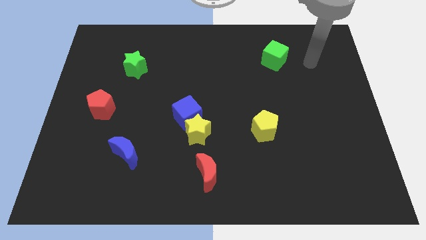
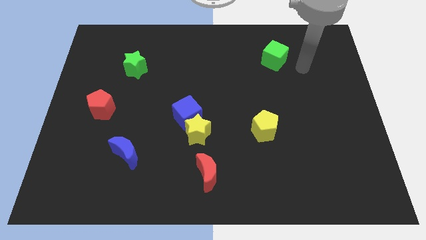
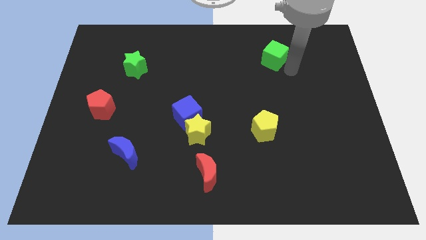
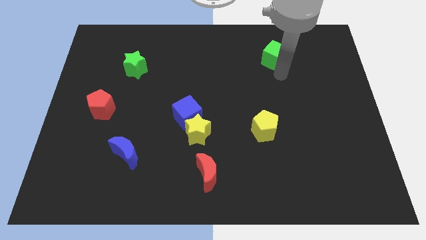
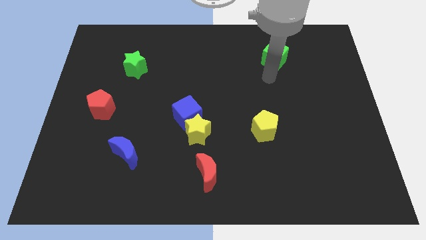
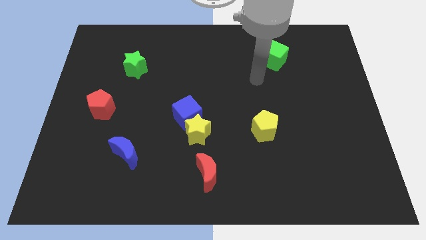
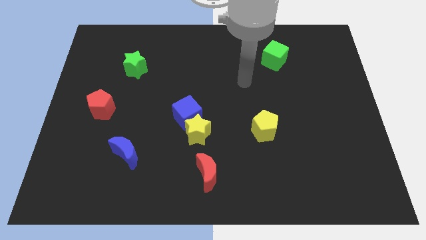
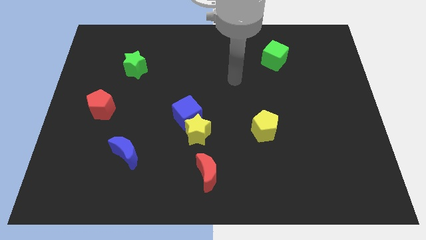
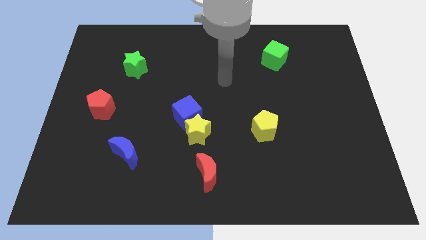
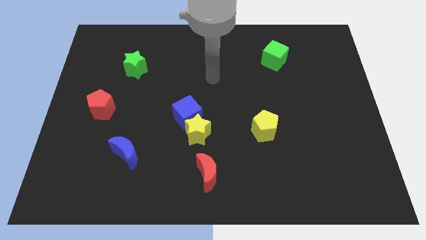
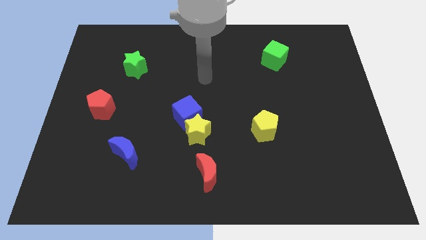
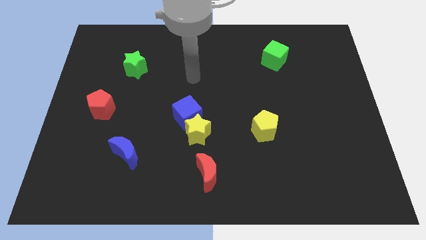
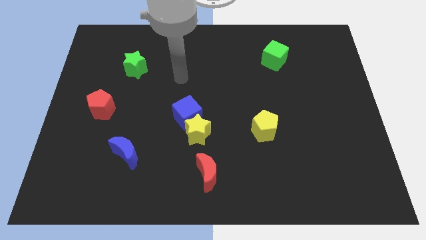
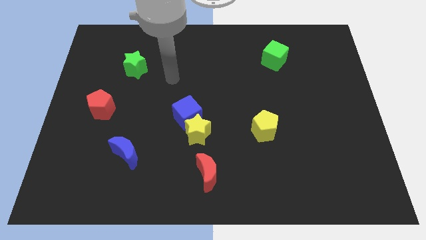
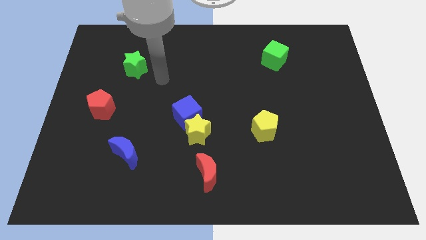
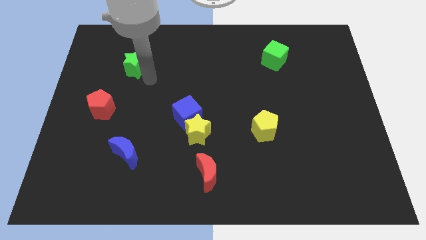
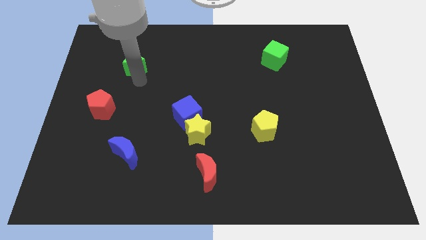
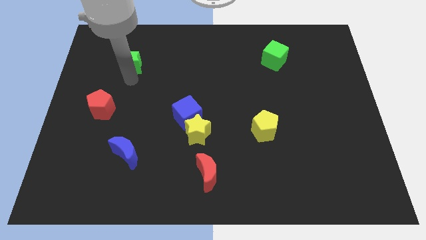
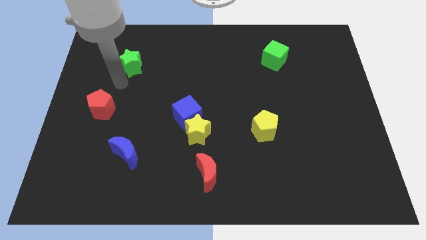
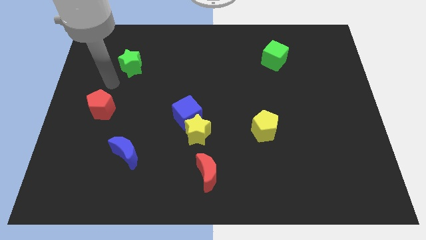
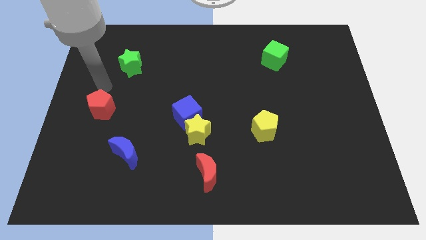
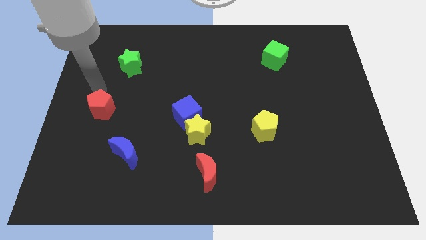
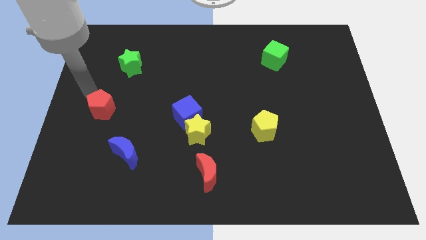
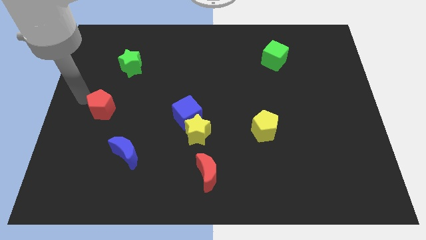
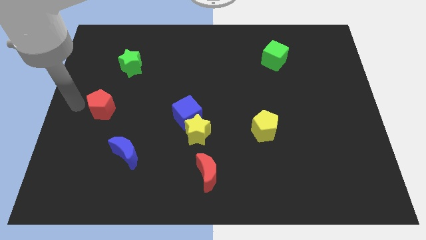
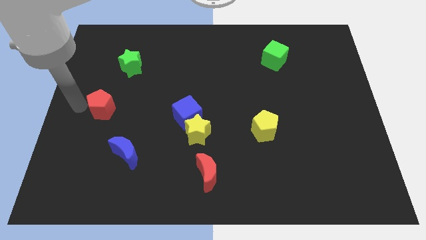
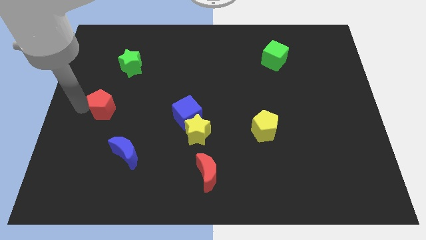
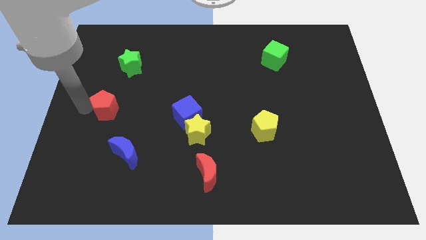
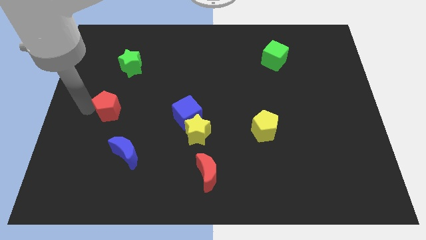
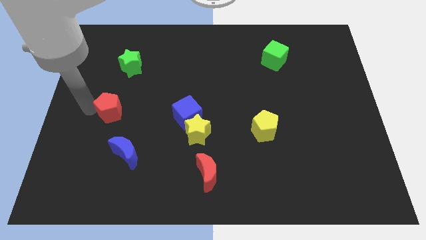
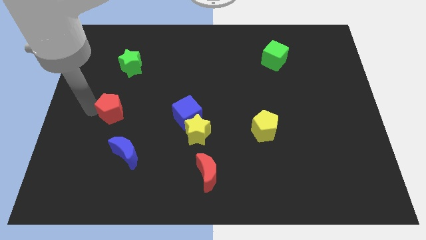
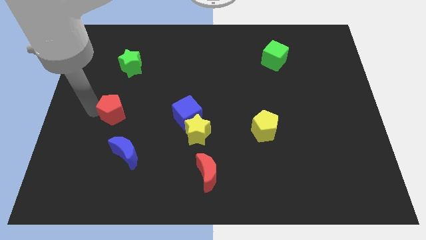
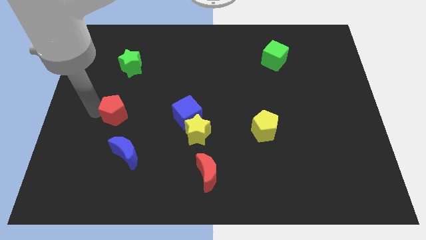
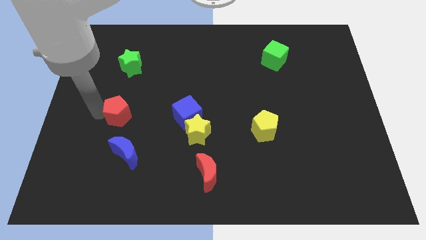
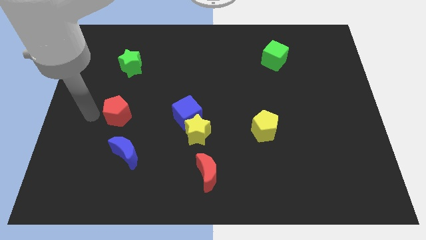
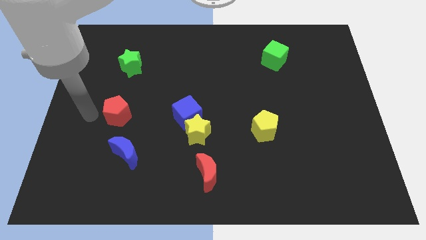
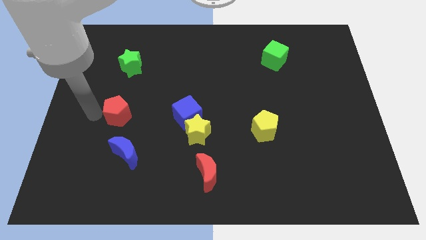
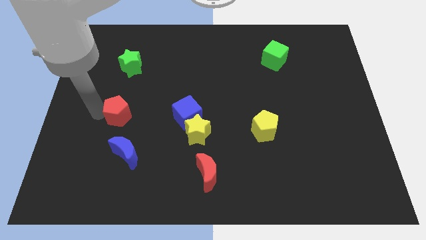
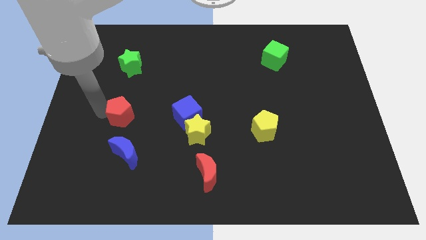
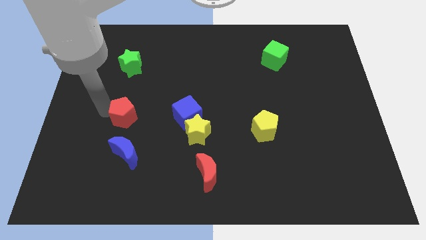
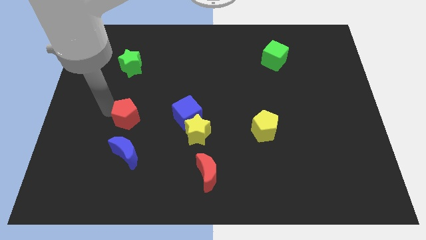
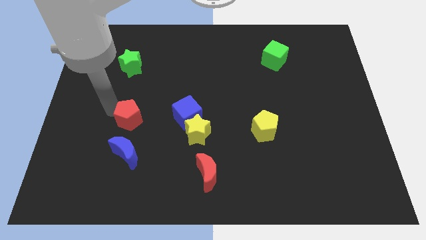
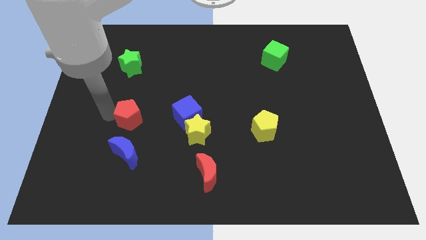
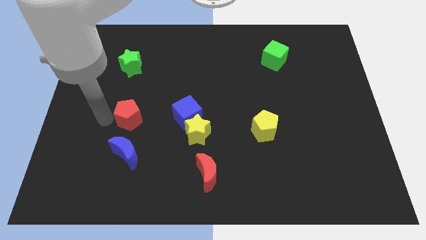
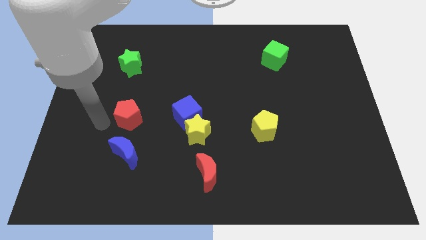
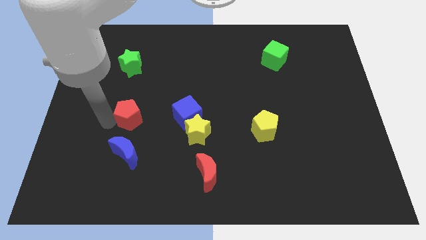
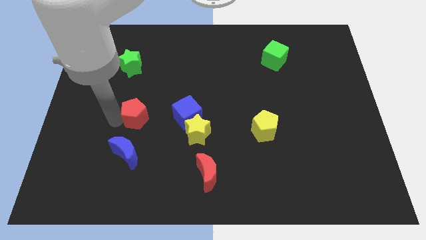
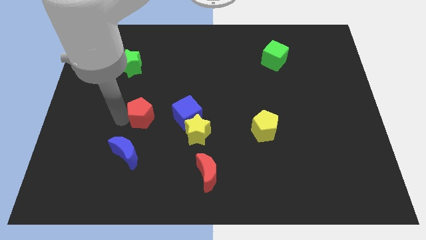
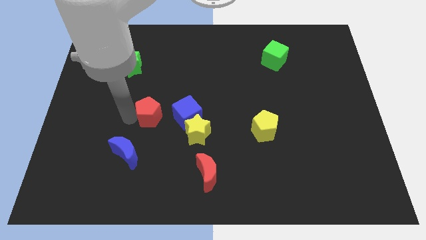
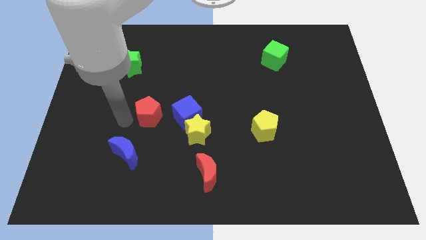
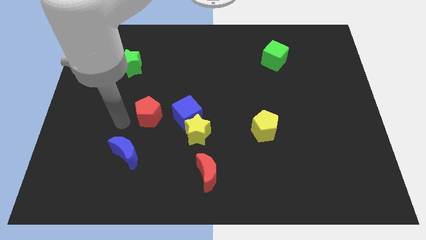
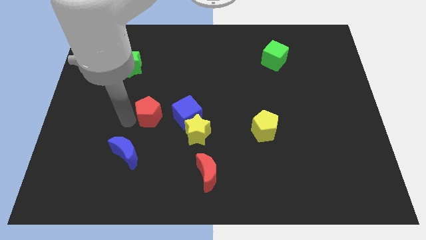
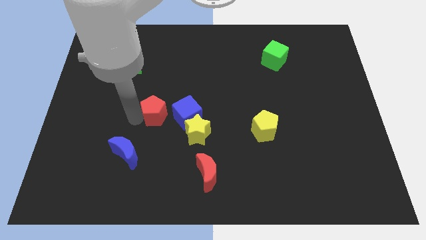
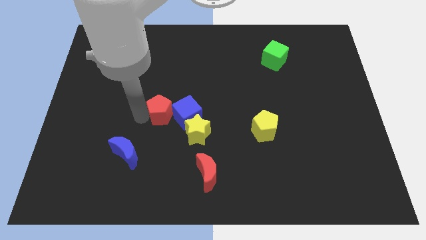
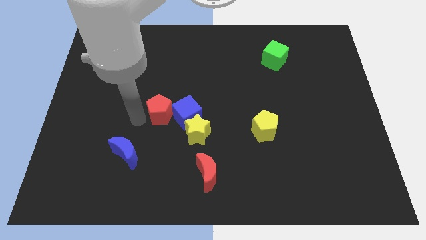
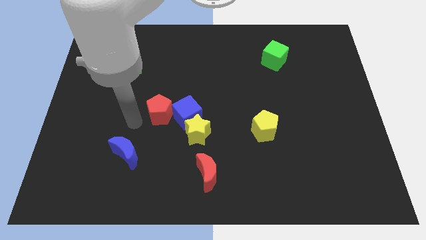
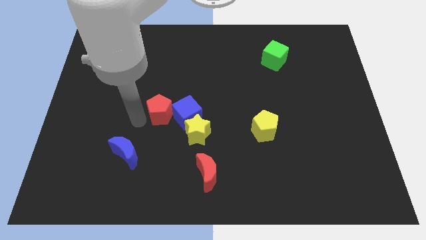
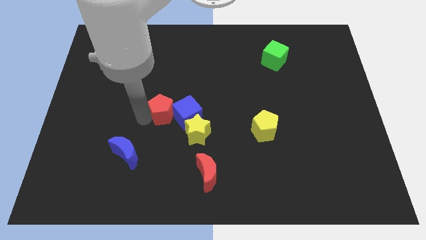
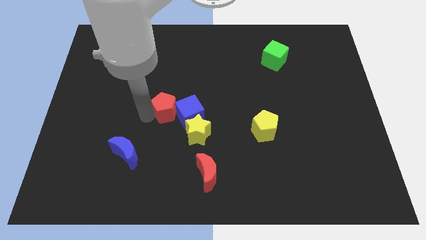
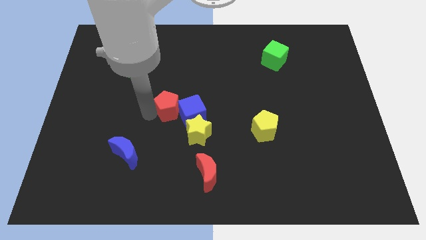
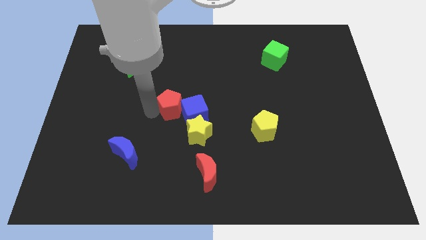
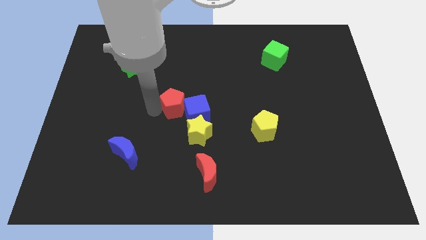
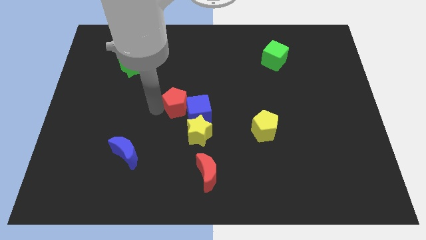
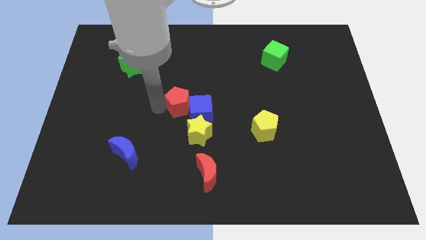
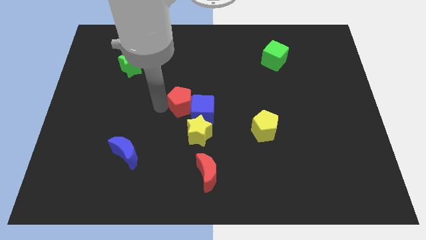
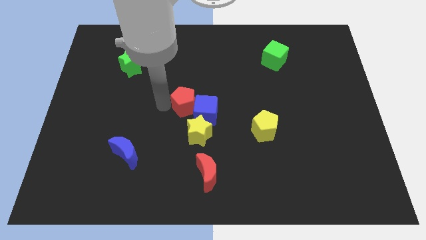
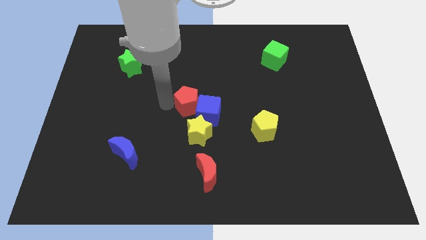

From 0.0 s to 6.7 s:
move the red pentagon right

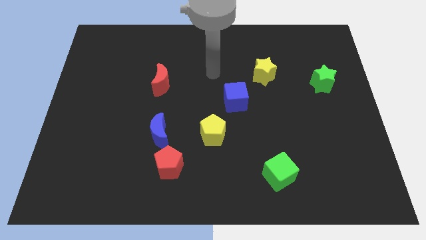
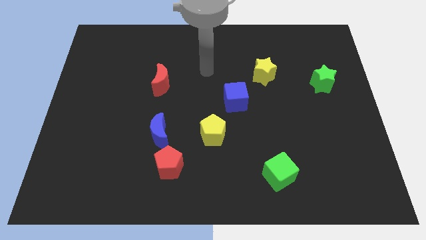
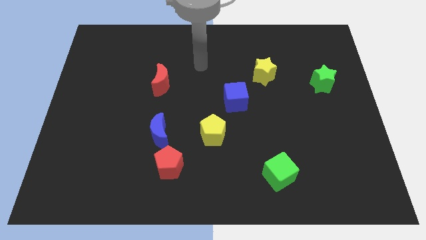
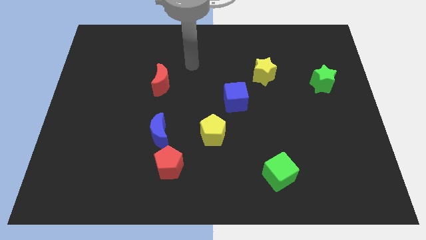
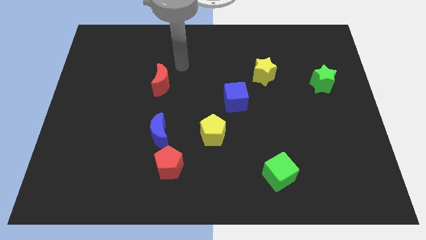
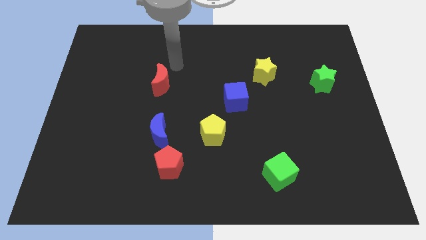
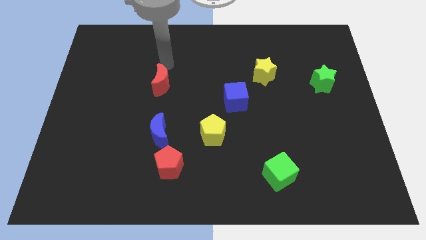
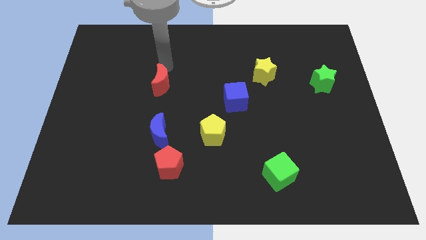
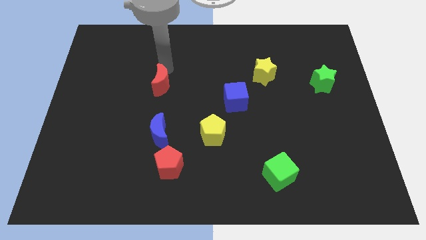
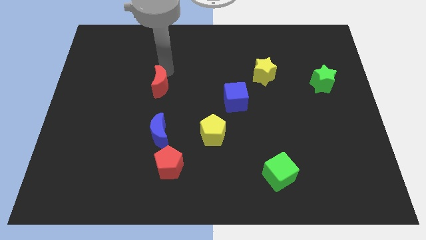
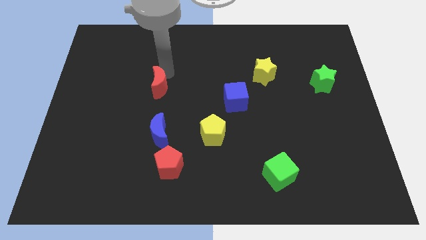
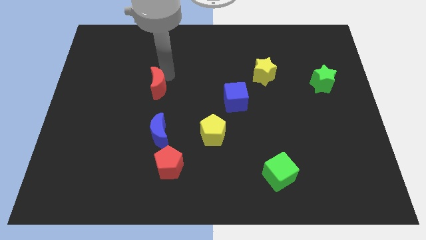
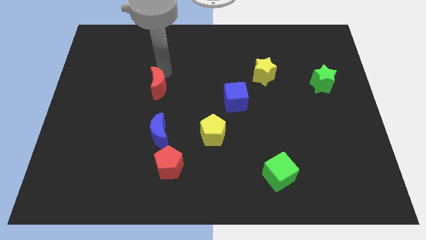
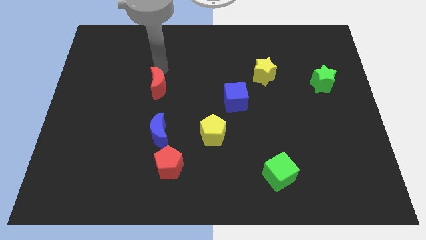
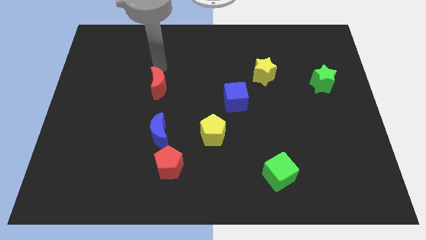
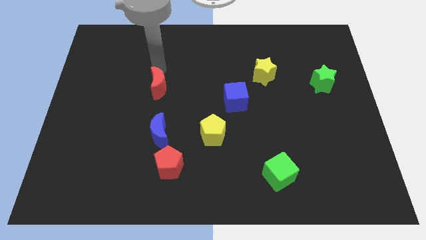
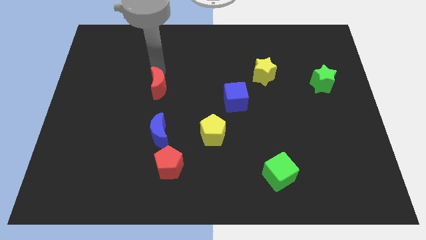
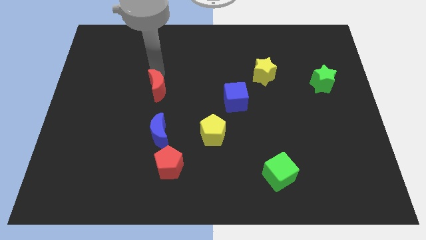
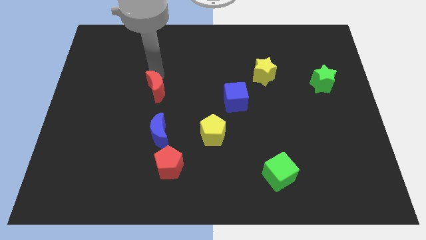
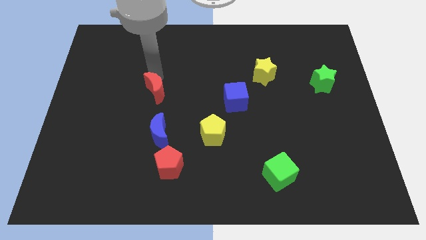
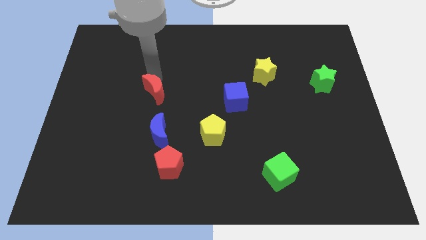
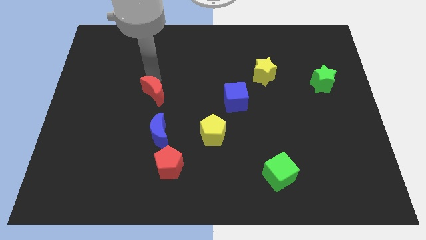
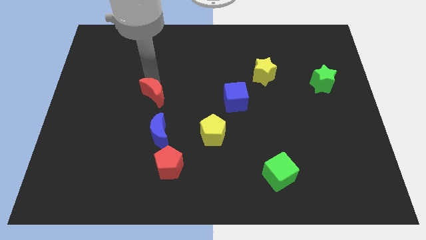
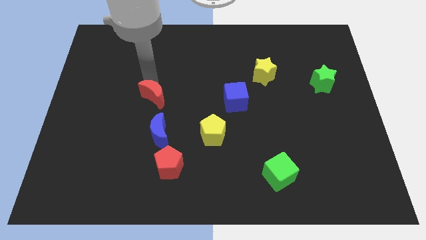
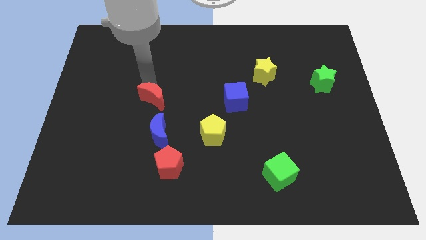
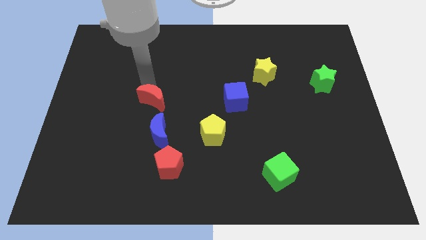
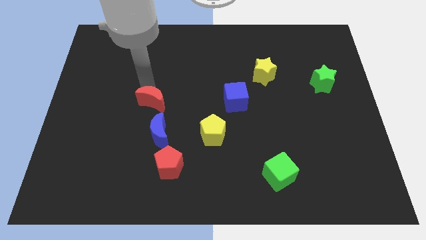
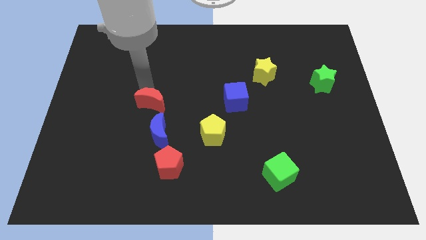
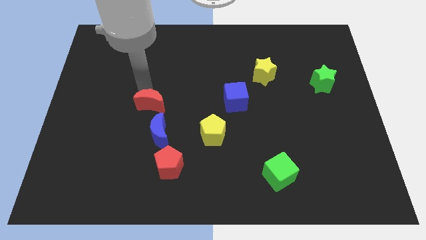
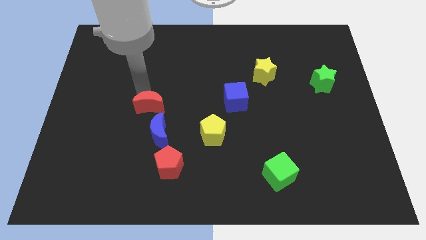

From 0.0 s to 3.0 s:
push the red moon down slightly
